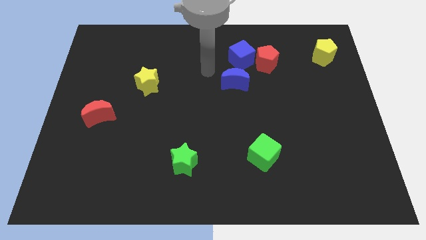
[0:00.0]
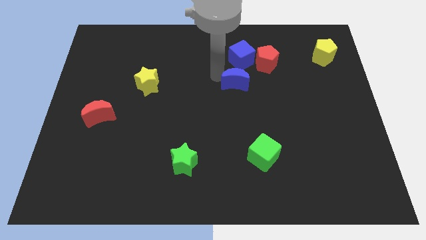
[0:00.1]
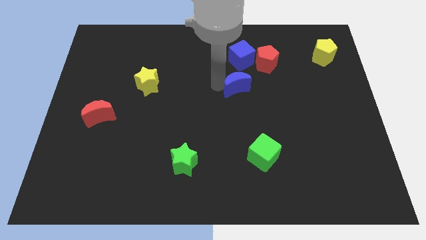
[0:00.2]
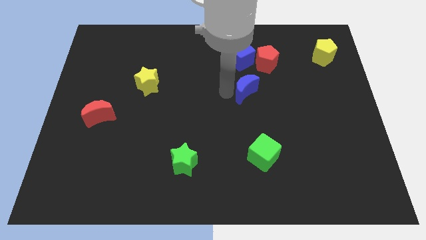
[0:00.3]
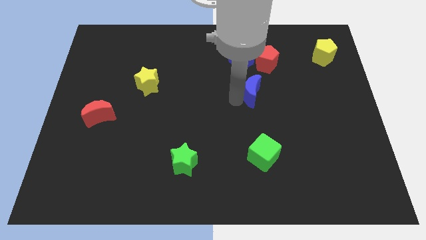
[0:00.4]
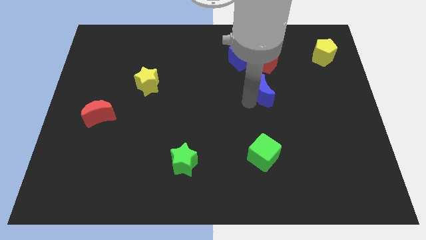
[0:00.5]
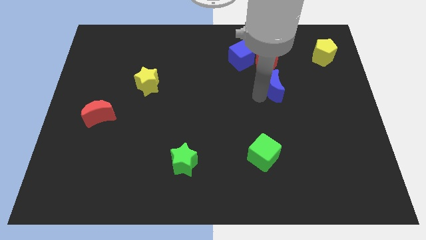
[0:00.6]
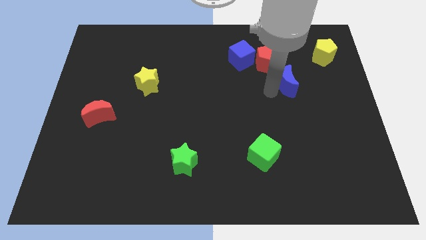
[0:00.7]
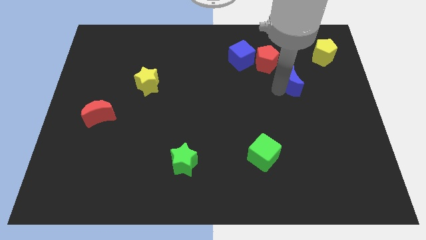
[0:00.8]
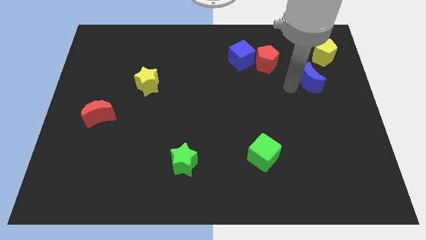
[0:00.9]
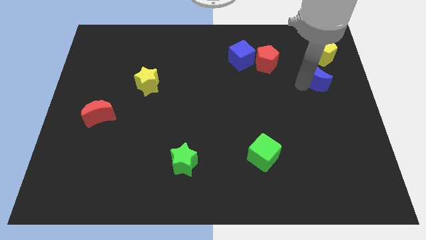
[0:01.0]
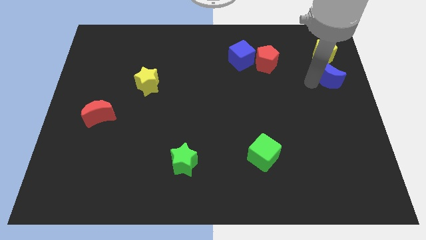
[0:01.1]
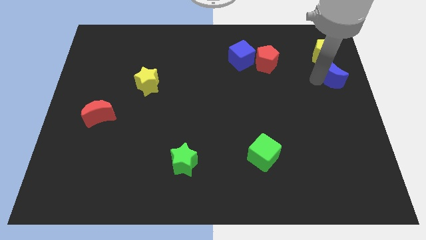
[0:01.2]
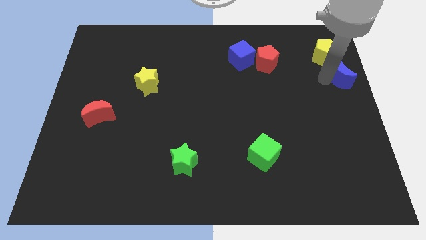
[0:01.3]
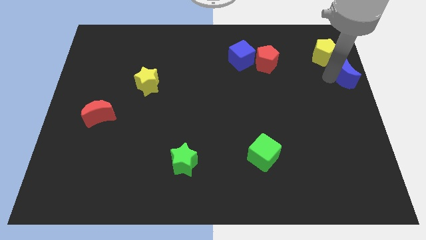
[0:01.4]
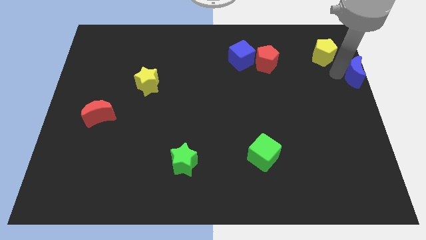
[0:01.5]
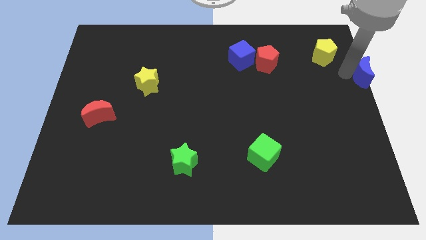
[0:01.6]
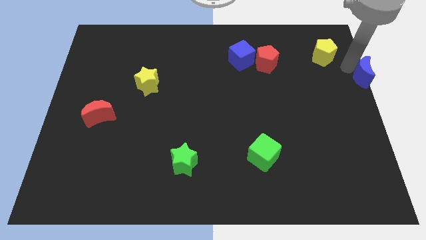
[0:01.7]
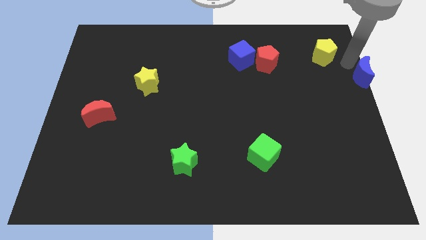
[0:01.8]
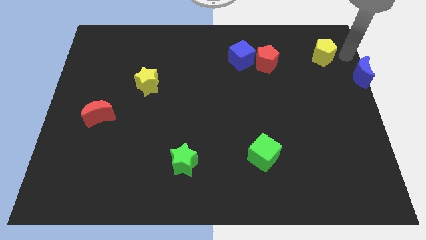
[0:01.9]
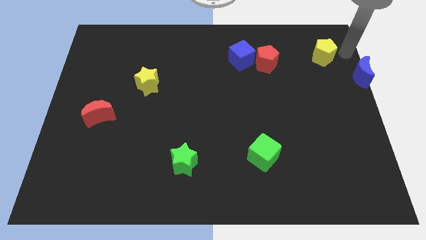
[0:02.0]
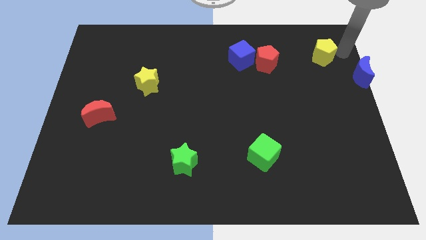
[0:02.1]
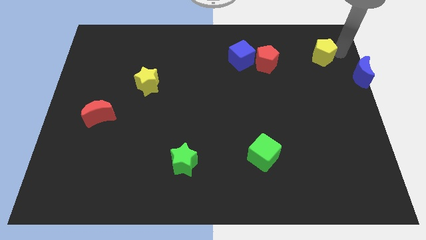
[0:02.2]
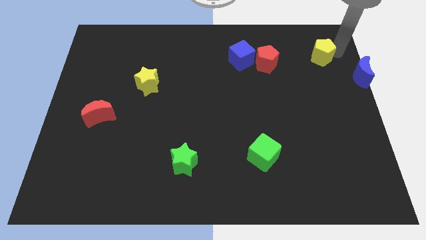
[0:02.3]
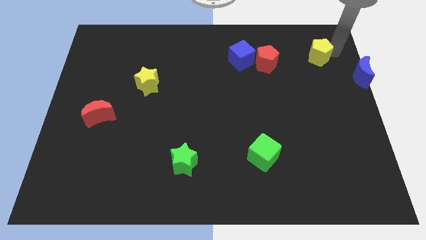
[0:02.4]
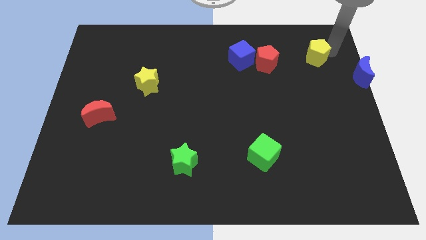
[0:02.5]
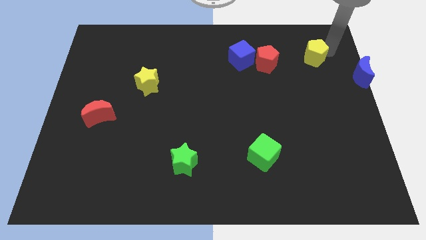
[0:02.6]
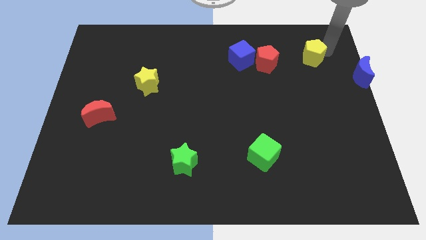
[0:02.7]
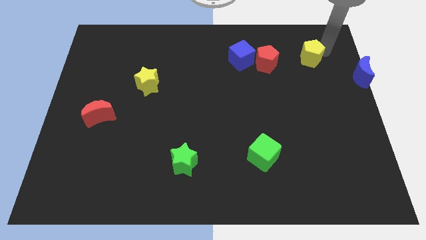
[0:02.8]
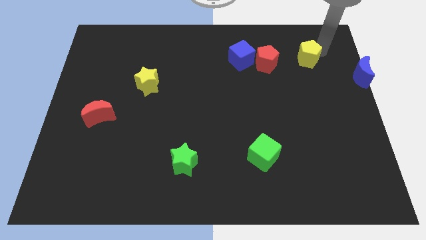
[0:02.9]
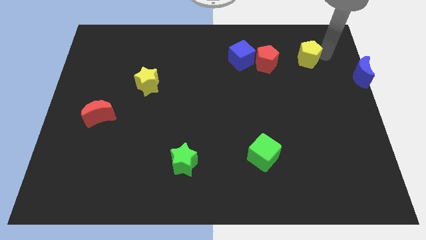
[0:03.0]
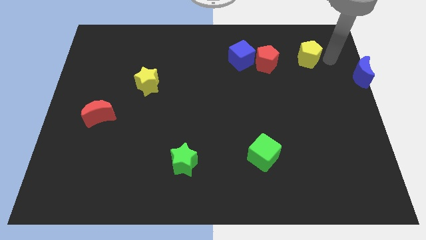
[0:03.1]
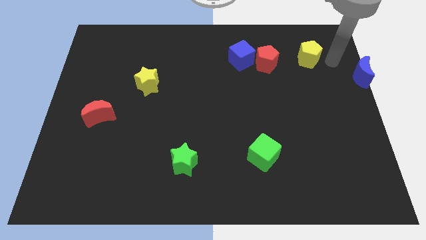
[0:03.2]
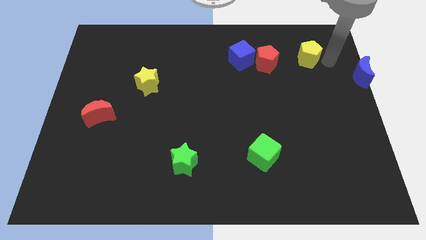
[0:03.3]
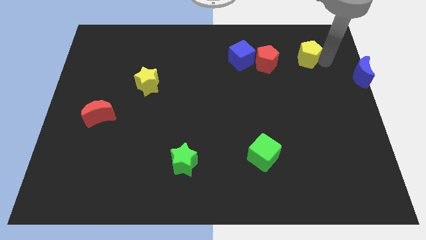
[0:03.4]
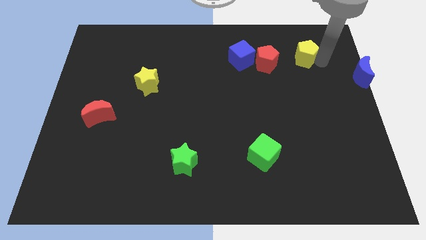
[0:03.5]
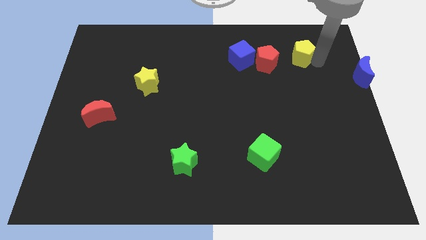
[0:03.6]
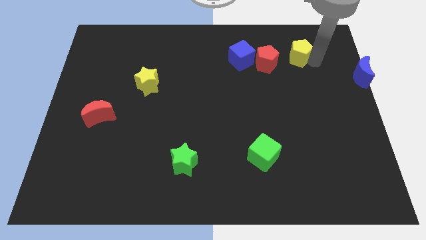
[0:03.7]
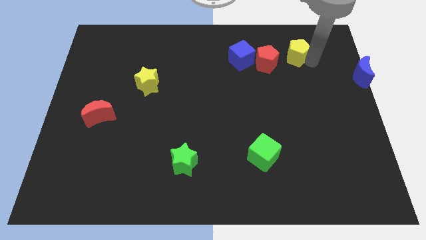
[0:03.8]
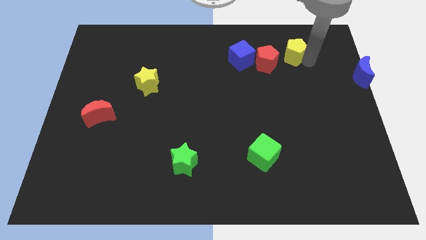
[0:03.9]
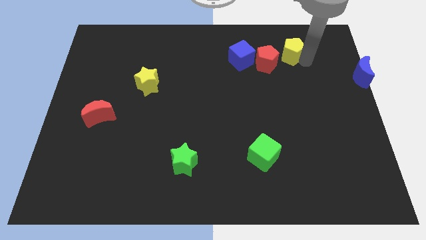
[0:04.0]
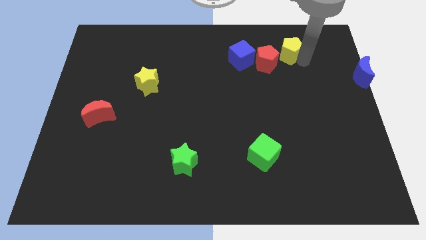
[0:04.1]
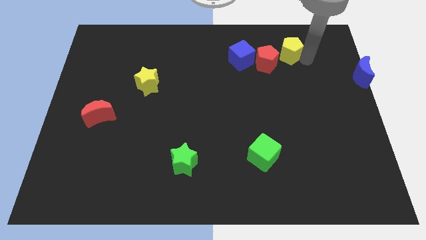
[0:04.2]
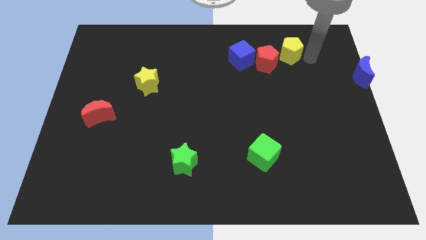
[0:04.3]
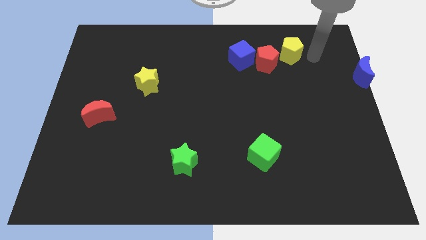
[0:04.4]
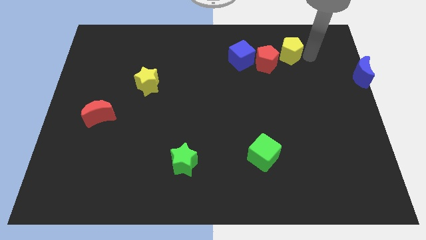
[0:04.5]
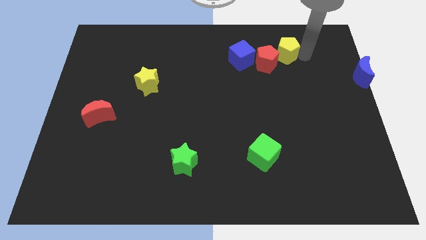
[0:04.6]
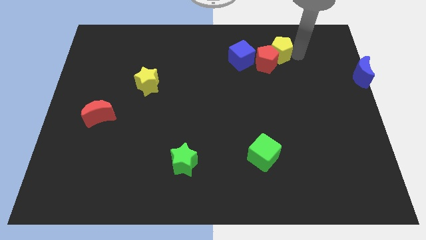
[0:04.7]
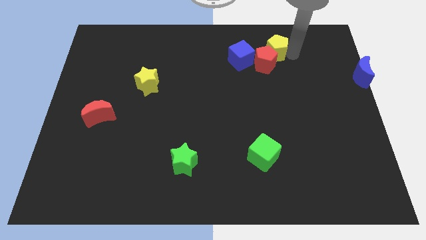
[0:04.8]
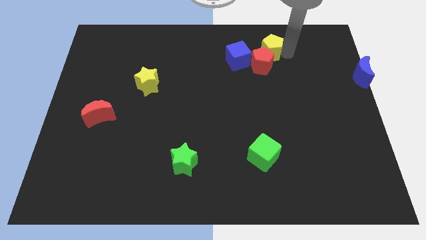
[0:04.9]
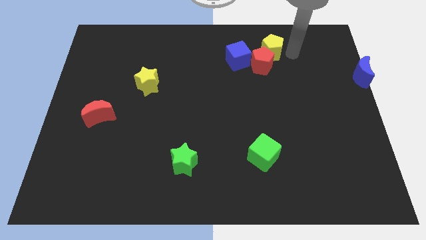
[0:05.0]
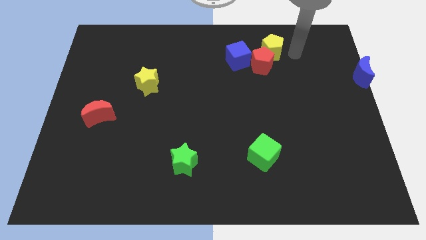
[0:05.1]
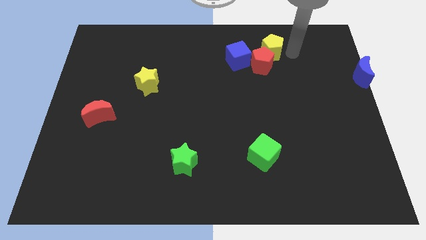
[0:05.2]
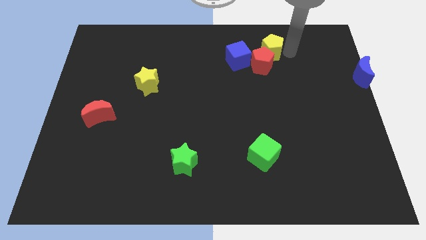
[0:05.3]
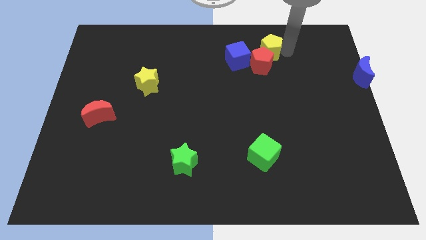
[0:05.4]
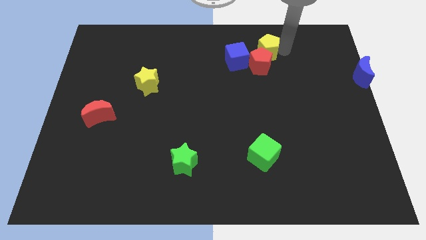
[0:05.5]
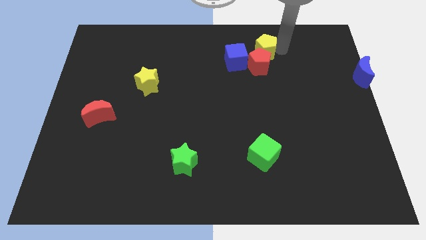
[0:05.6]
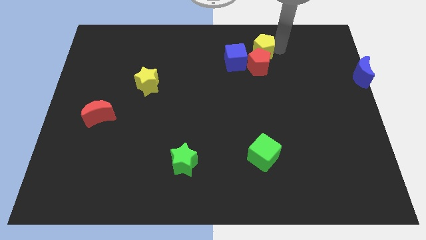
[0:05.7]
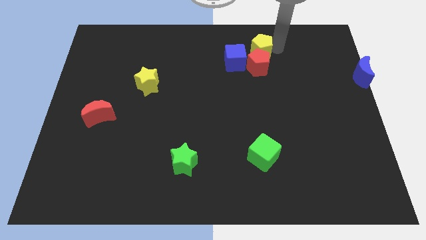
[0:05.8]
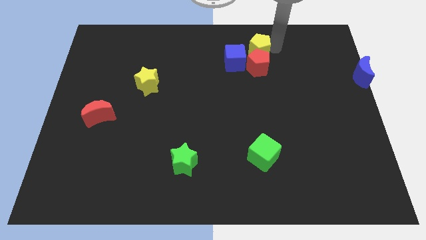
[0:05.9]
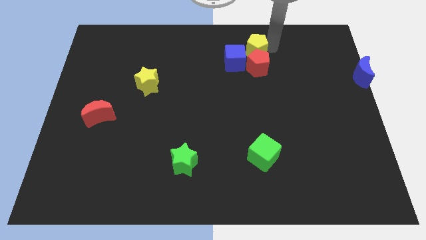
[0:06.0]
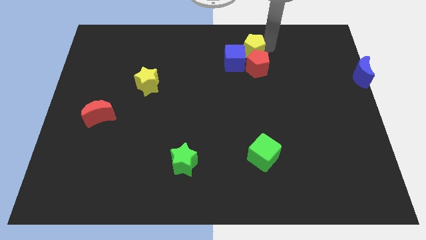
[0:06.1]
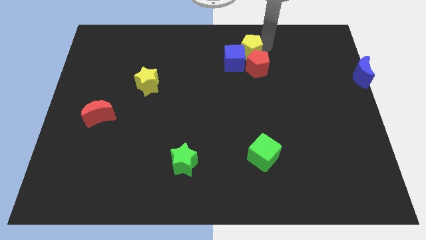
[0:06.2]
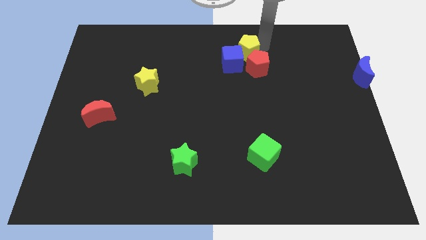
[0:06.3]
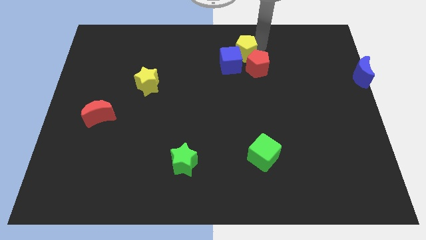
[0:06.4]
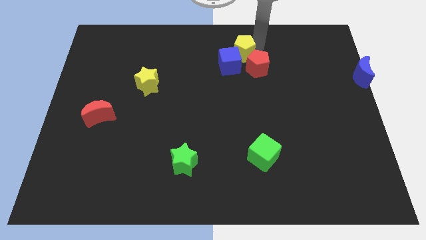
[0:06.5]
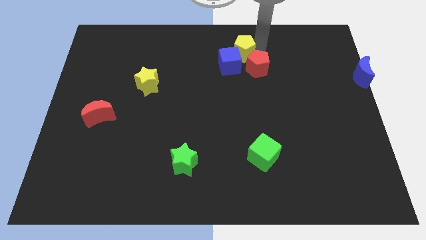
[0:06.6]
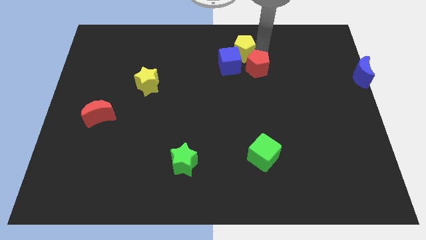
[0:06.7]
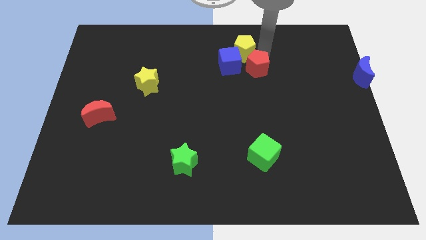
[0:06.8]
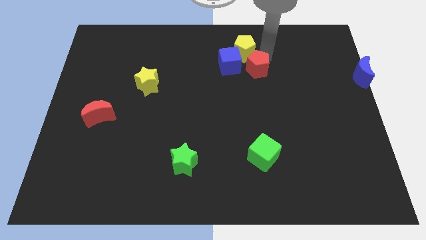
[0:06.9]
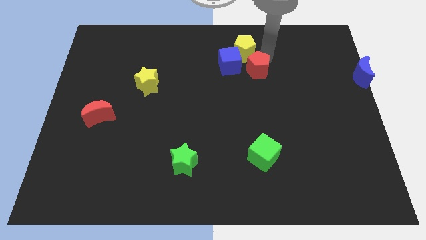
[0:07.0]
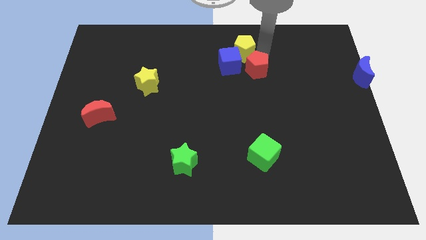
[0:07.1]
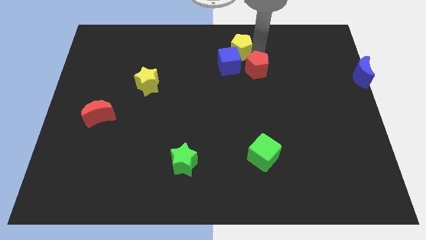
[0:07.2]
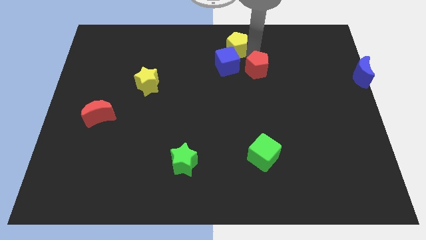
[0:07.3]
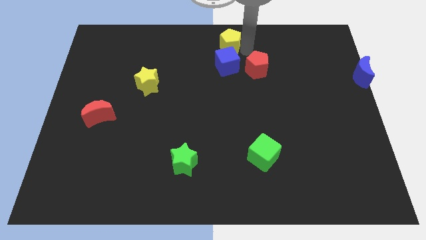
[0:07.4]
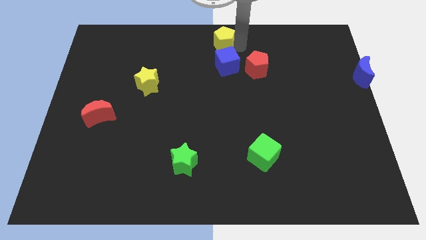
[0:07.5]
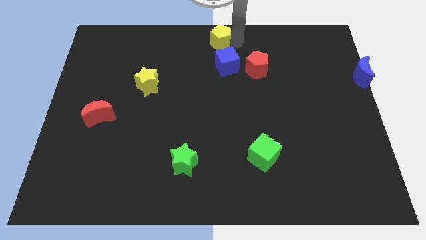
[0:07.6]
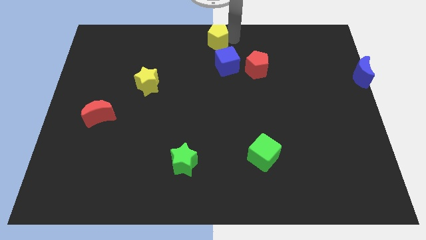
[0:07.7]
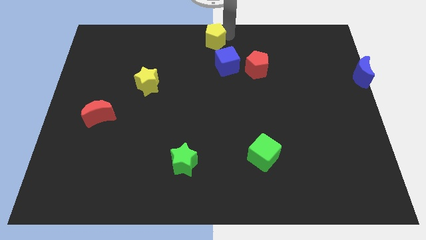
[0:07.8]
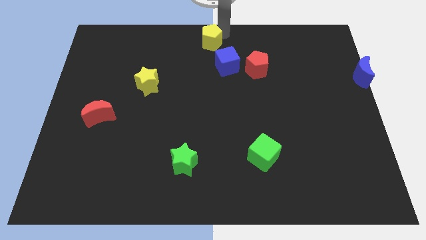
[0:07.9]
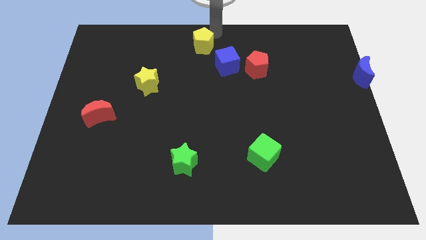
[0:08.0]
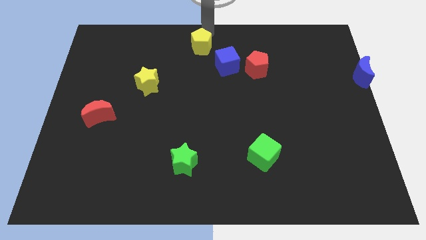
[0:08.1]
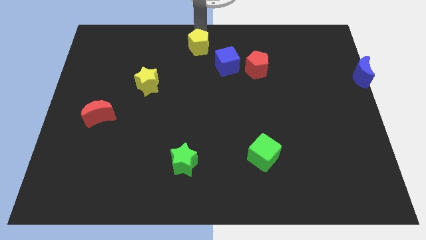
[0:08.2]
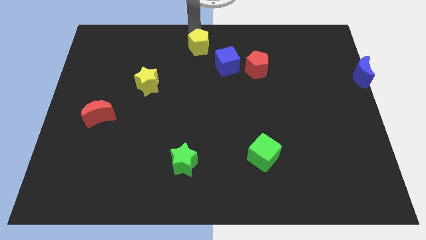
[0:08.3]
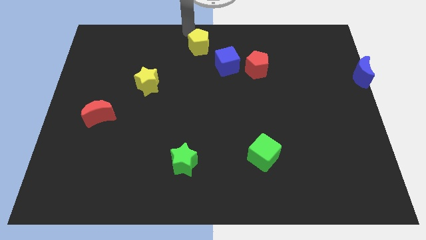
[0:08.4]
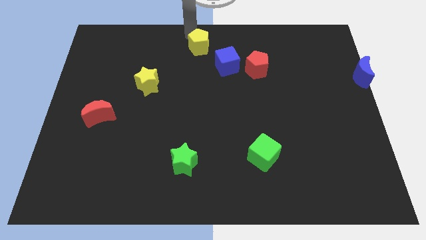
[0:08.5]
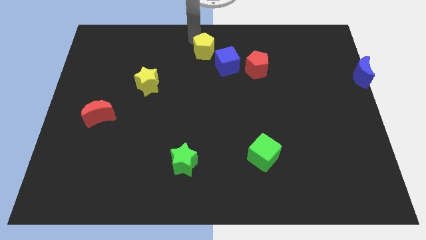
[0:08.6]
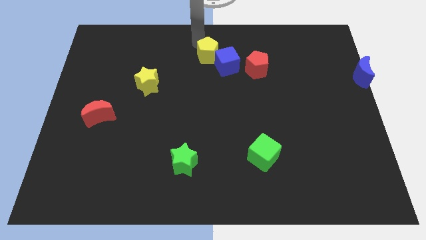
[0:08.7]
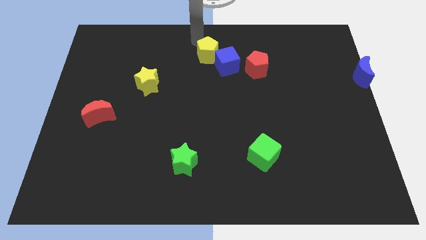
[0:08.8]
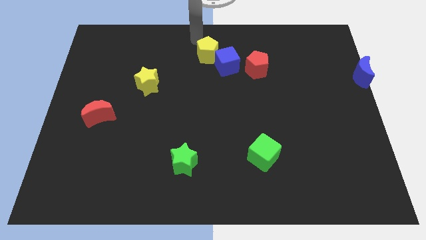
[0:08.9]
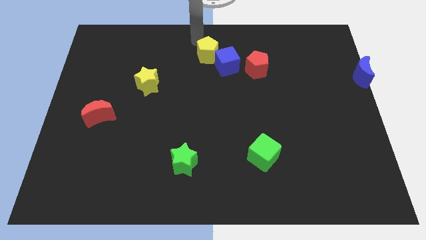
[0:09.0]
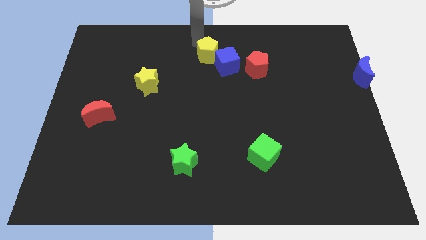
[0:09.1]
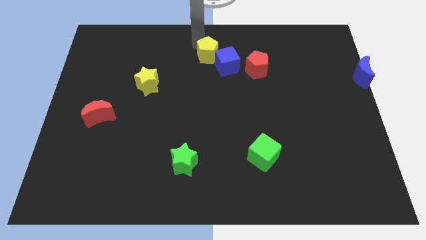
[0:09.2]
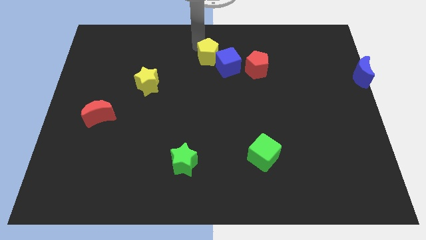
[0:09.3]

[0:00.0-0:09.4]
push the yellow pentagon just left of the red pentagon
